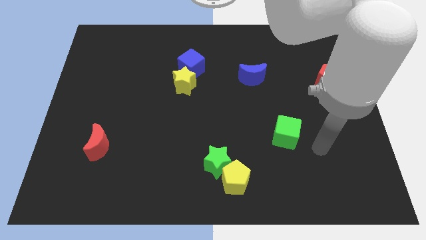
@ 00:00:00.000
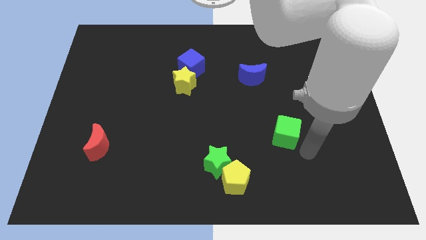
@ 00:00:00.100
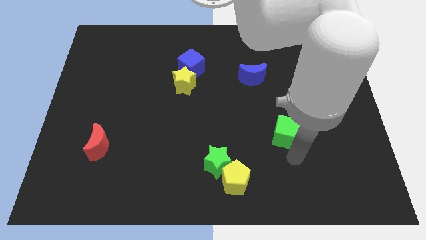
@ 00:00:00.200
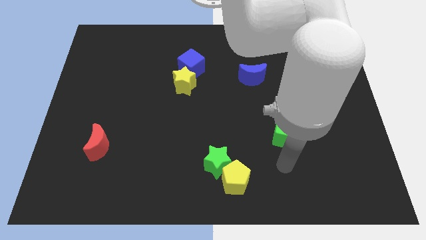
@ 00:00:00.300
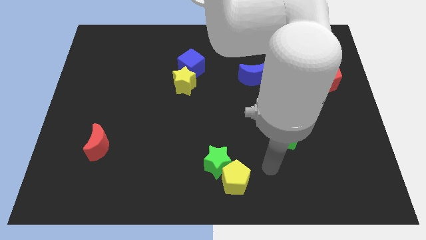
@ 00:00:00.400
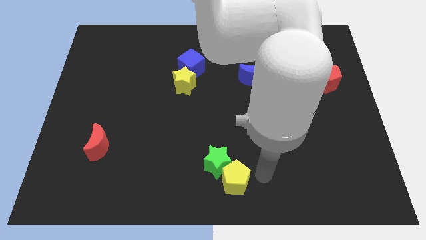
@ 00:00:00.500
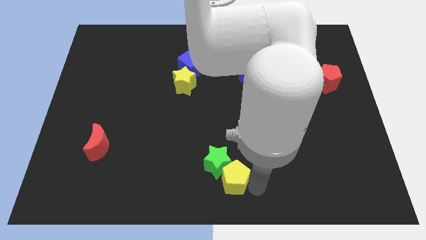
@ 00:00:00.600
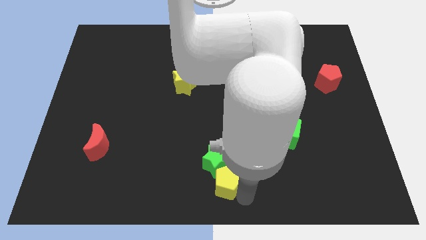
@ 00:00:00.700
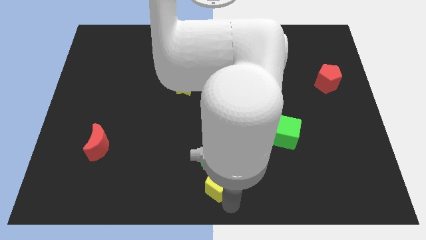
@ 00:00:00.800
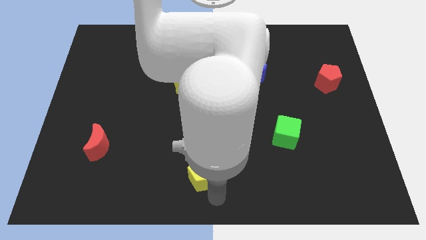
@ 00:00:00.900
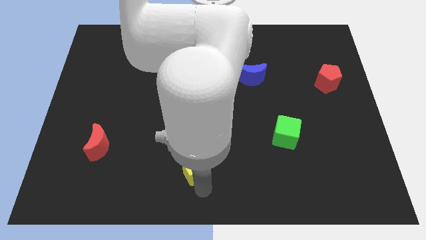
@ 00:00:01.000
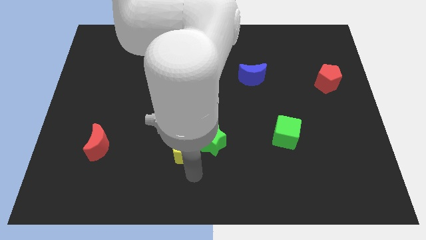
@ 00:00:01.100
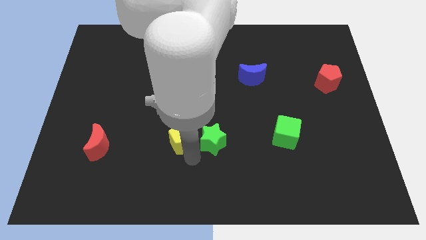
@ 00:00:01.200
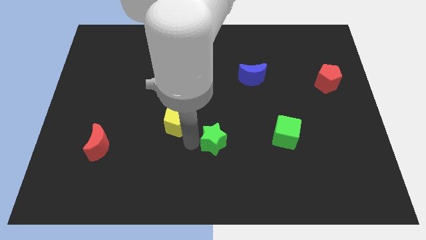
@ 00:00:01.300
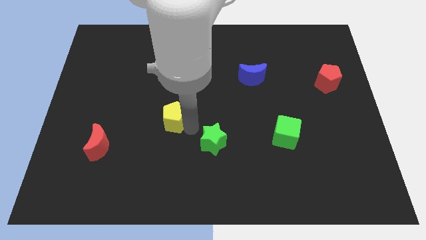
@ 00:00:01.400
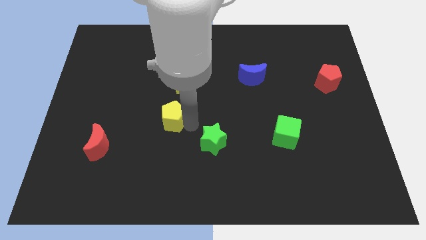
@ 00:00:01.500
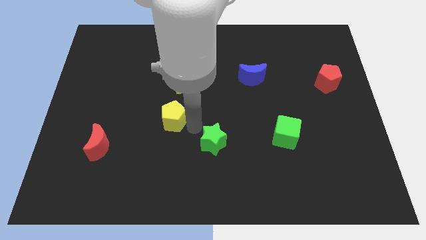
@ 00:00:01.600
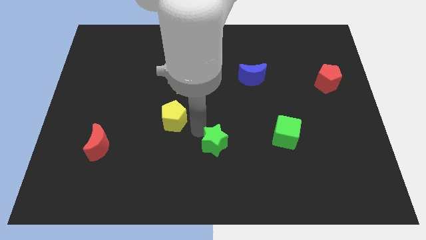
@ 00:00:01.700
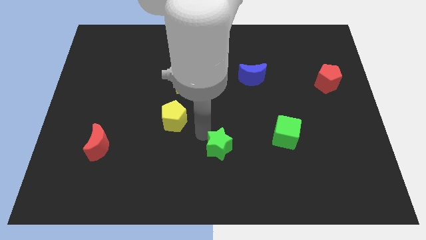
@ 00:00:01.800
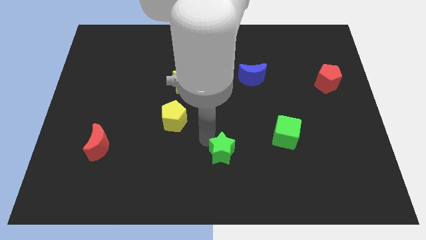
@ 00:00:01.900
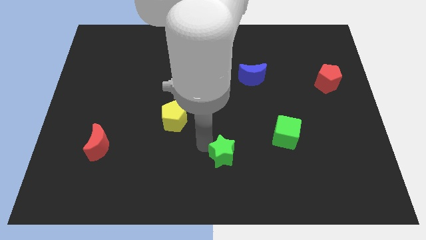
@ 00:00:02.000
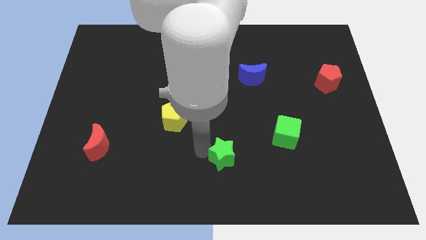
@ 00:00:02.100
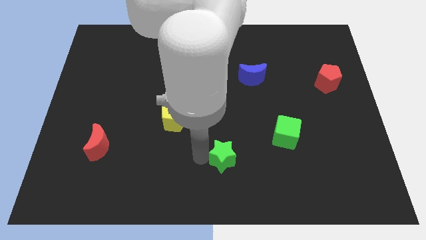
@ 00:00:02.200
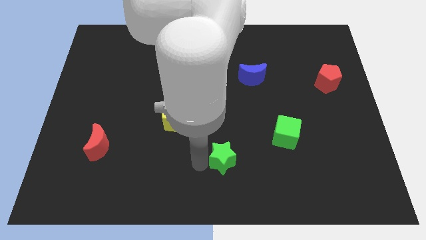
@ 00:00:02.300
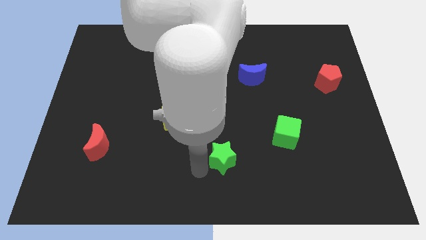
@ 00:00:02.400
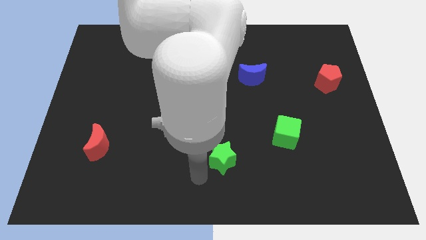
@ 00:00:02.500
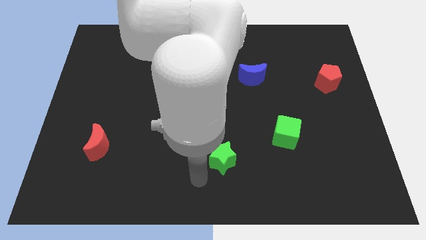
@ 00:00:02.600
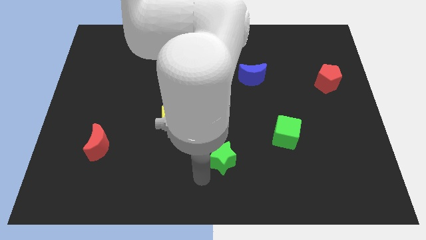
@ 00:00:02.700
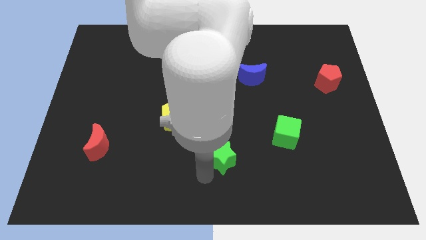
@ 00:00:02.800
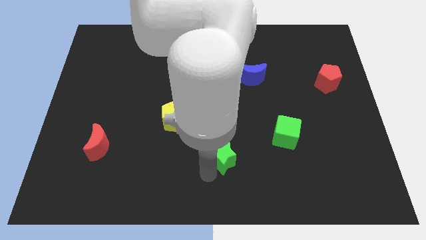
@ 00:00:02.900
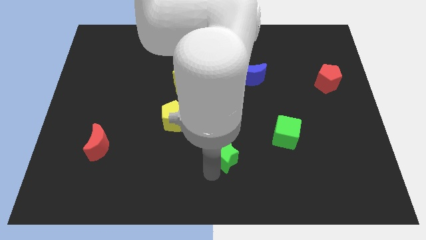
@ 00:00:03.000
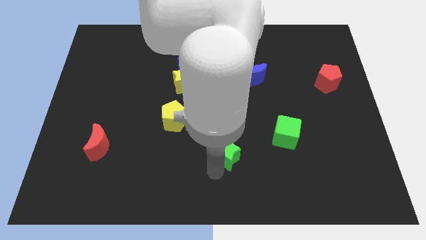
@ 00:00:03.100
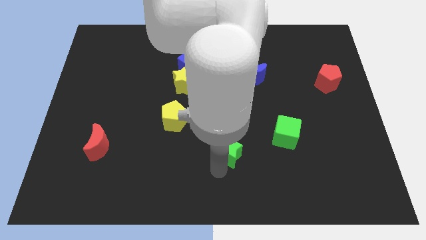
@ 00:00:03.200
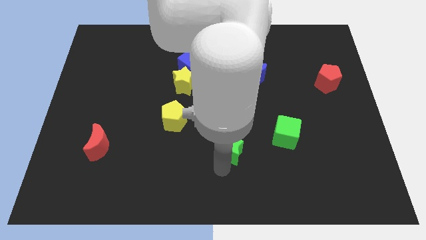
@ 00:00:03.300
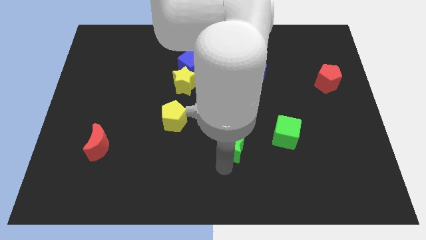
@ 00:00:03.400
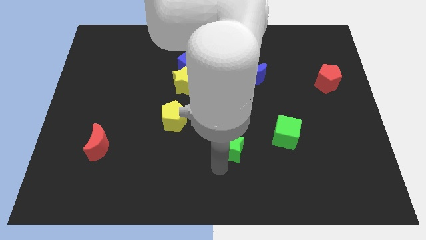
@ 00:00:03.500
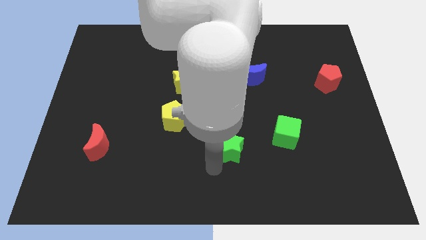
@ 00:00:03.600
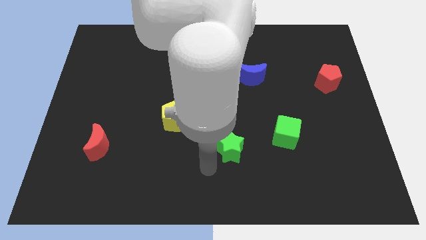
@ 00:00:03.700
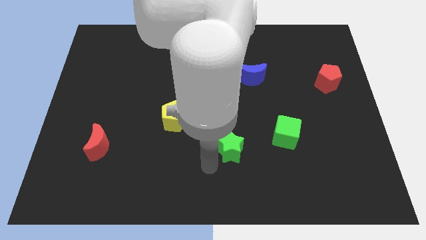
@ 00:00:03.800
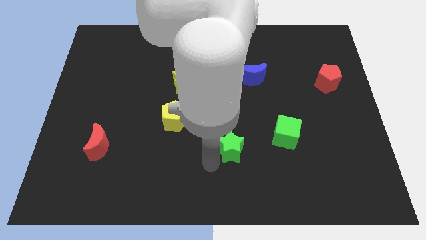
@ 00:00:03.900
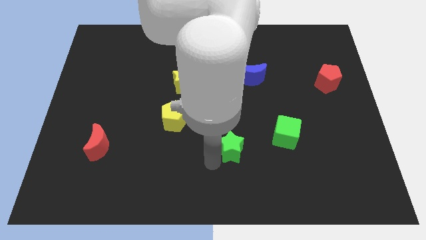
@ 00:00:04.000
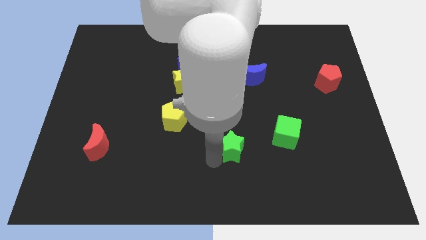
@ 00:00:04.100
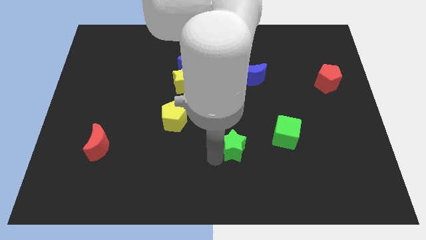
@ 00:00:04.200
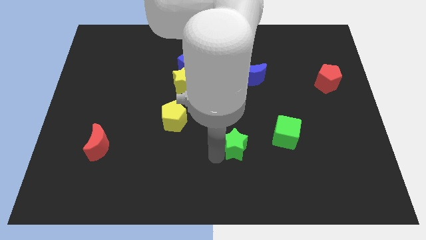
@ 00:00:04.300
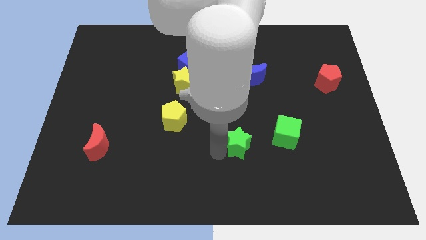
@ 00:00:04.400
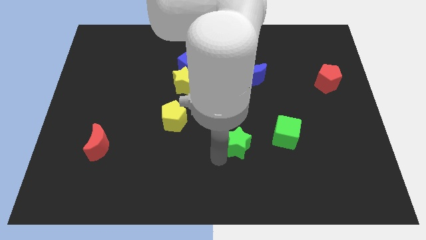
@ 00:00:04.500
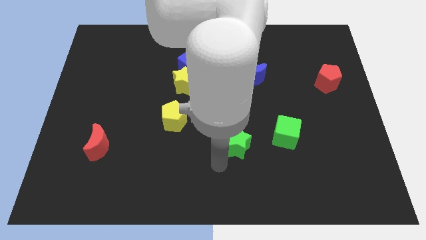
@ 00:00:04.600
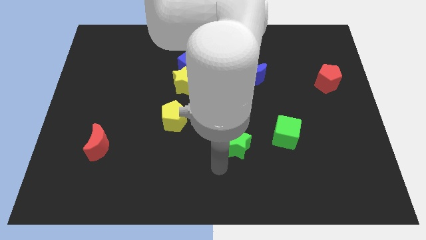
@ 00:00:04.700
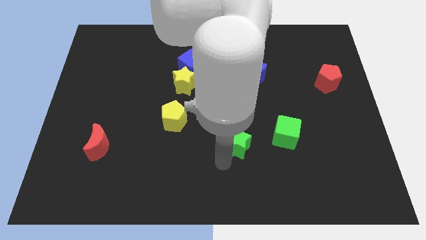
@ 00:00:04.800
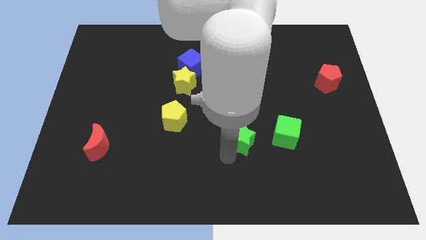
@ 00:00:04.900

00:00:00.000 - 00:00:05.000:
slightly push the green star upwards and right diagonally

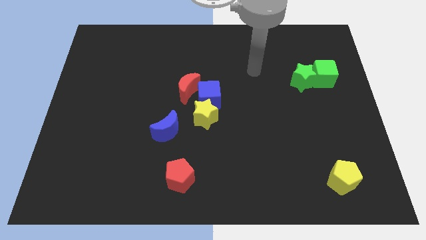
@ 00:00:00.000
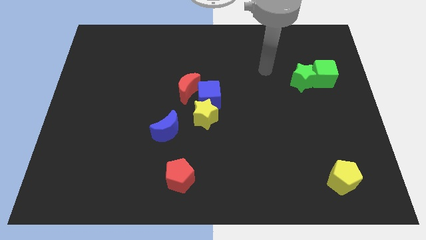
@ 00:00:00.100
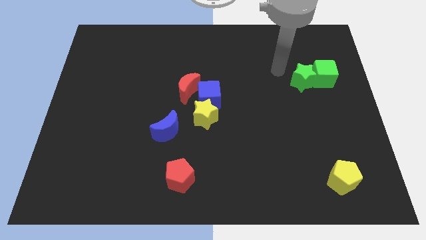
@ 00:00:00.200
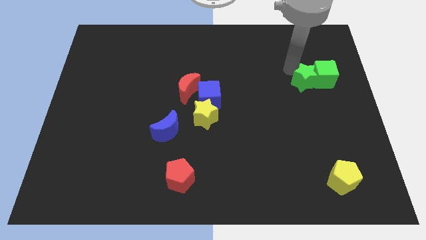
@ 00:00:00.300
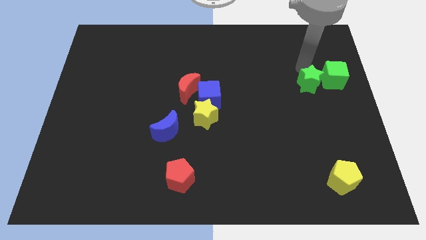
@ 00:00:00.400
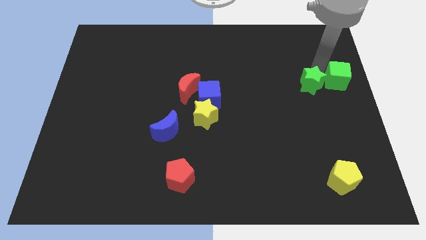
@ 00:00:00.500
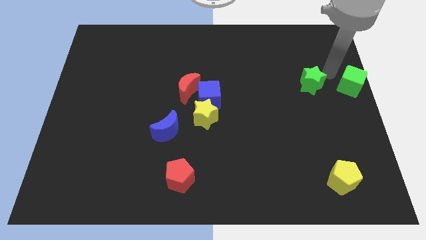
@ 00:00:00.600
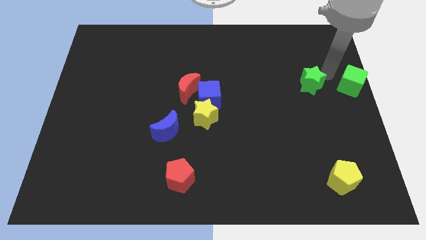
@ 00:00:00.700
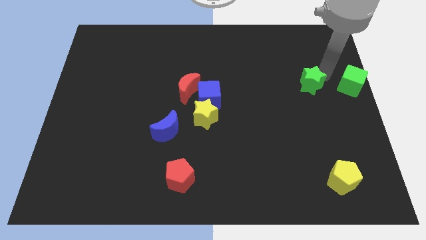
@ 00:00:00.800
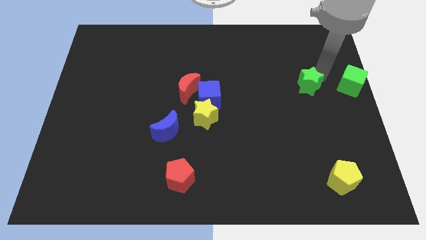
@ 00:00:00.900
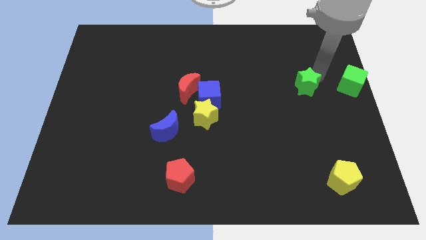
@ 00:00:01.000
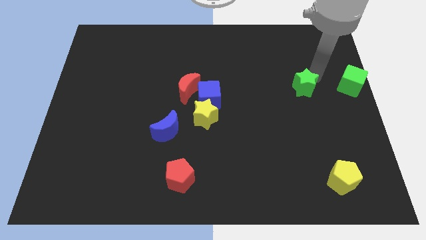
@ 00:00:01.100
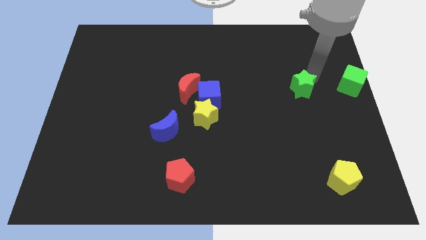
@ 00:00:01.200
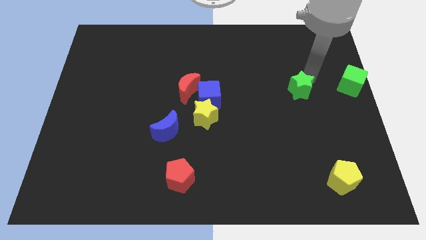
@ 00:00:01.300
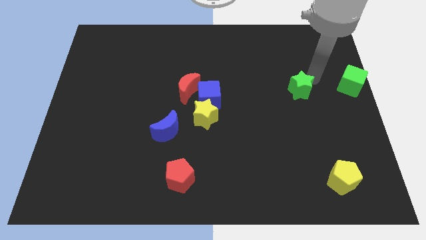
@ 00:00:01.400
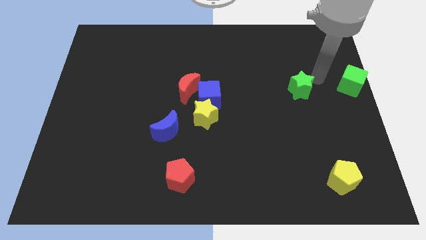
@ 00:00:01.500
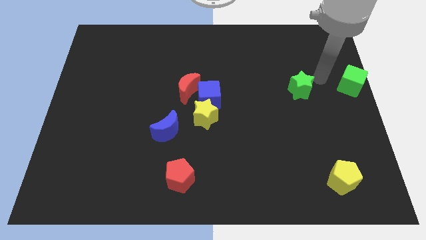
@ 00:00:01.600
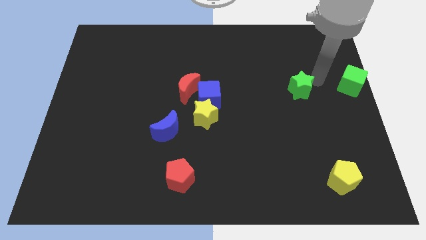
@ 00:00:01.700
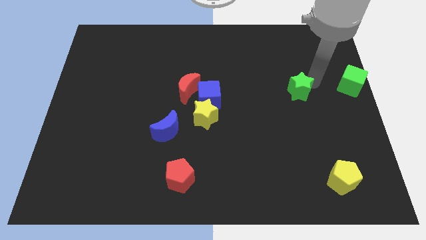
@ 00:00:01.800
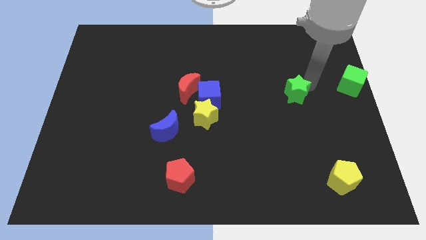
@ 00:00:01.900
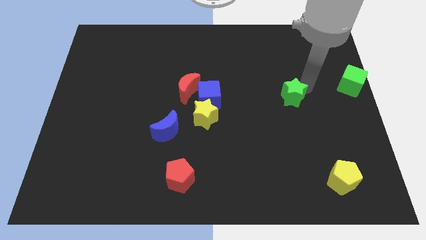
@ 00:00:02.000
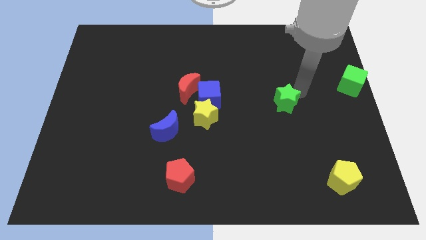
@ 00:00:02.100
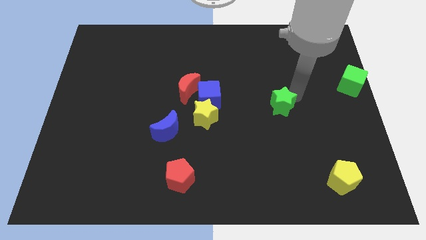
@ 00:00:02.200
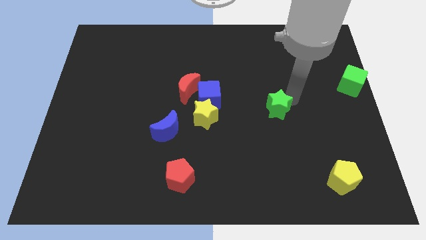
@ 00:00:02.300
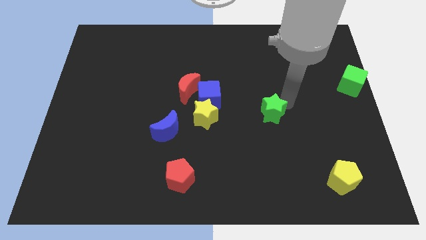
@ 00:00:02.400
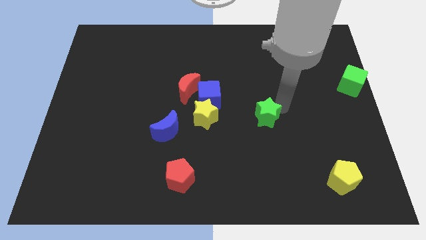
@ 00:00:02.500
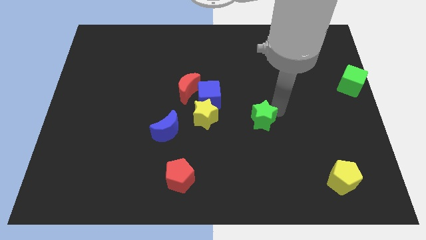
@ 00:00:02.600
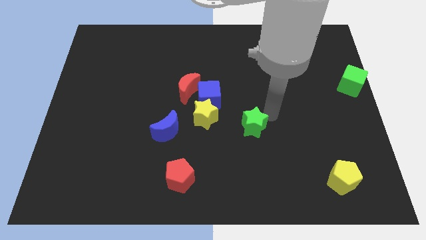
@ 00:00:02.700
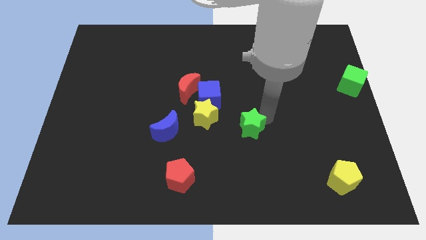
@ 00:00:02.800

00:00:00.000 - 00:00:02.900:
push the green star down and then left
